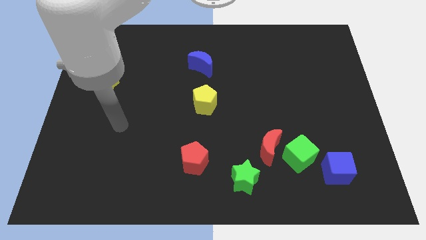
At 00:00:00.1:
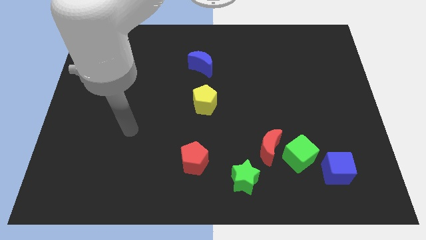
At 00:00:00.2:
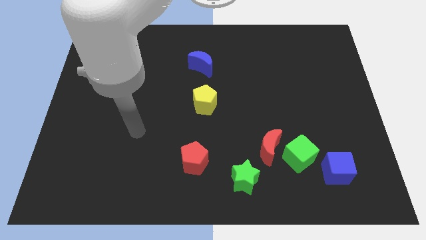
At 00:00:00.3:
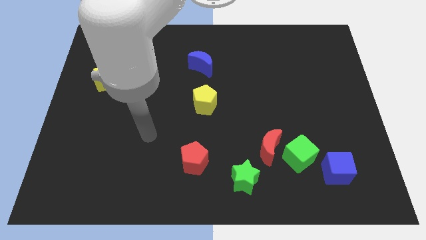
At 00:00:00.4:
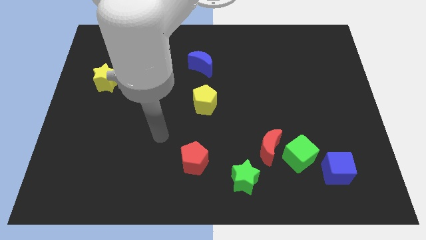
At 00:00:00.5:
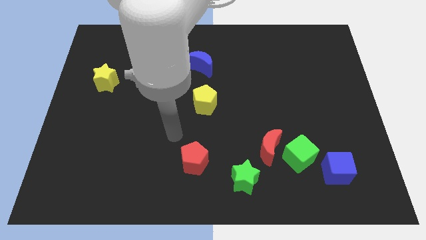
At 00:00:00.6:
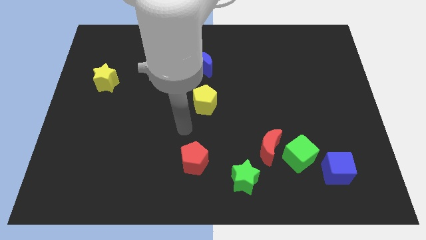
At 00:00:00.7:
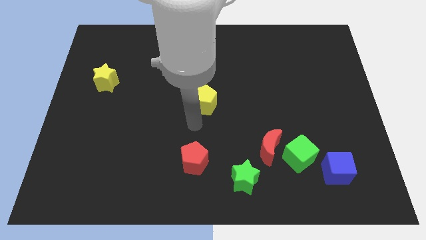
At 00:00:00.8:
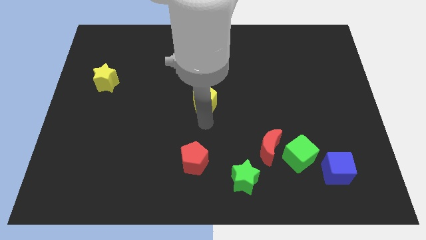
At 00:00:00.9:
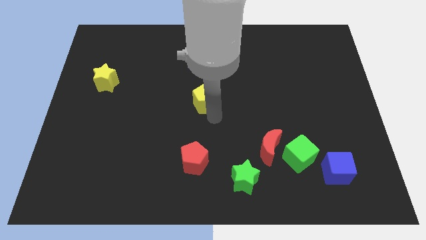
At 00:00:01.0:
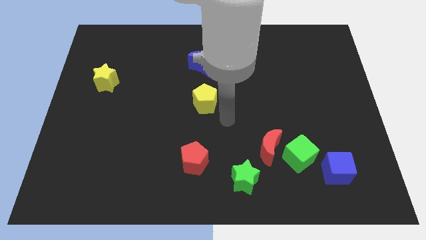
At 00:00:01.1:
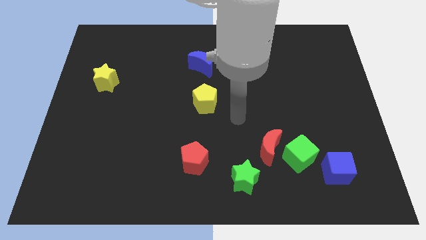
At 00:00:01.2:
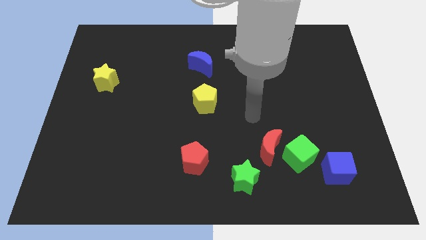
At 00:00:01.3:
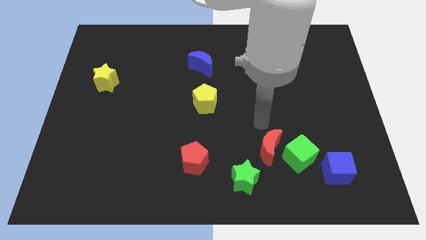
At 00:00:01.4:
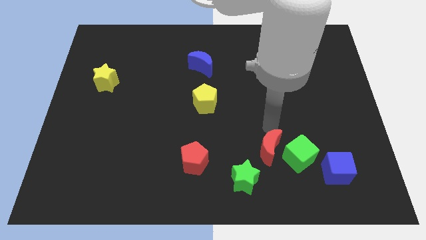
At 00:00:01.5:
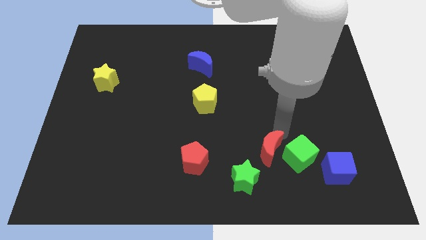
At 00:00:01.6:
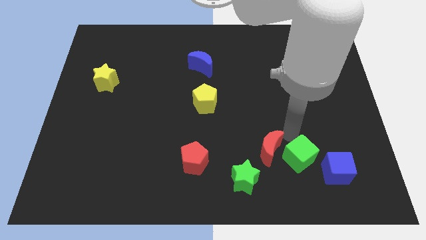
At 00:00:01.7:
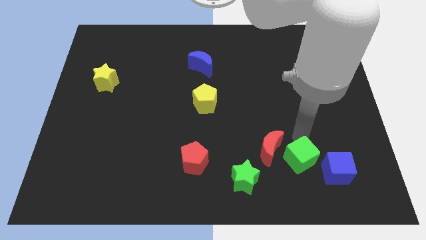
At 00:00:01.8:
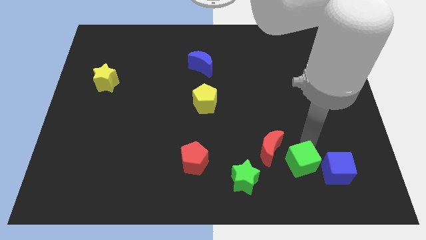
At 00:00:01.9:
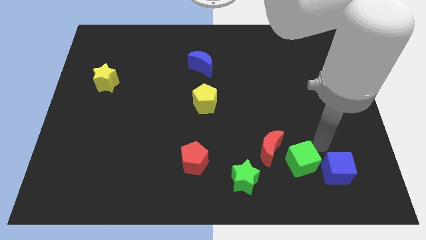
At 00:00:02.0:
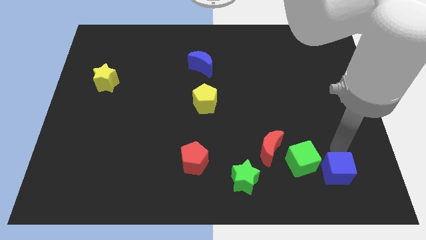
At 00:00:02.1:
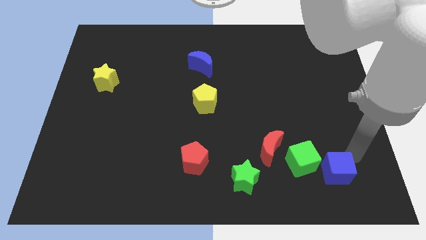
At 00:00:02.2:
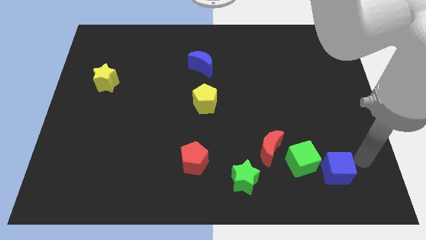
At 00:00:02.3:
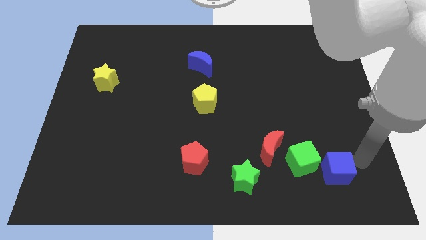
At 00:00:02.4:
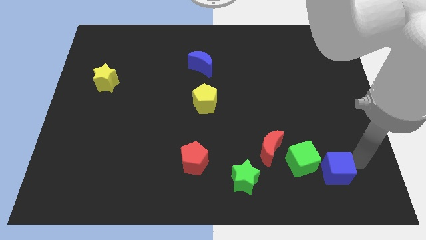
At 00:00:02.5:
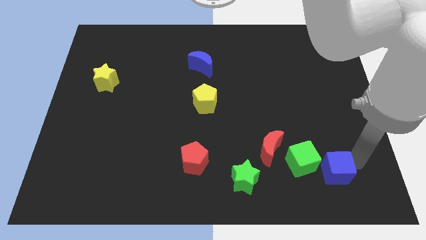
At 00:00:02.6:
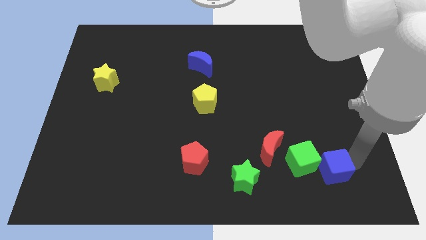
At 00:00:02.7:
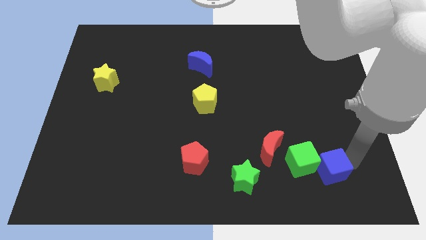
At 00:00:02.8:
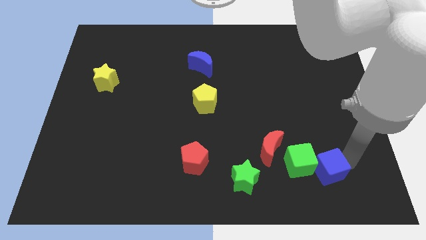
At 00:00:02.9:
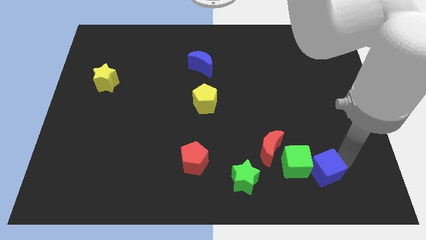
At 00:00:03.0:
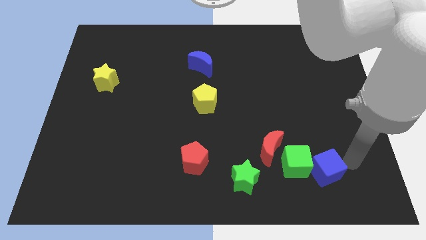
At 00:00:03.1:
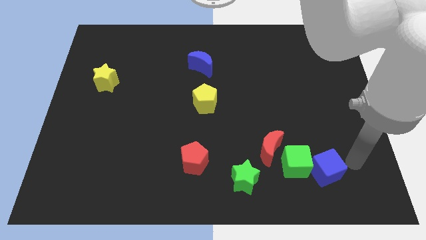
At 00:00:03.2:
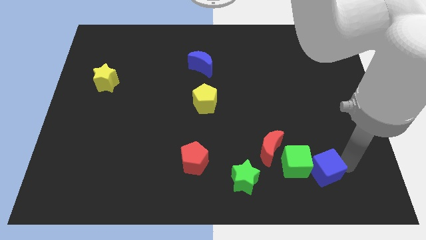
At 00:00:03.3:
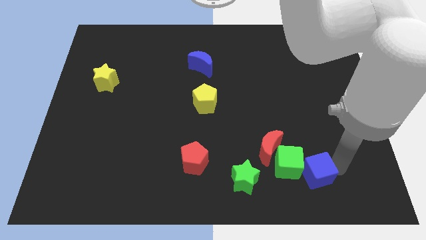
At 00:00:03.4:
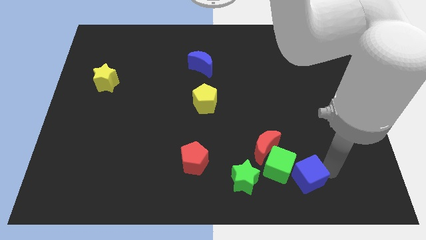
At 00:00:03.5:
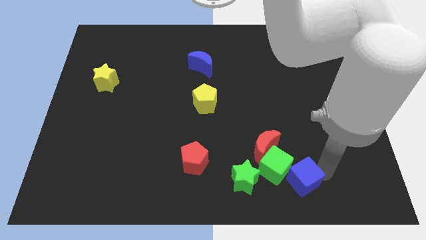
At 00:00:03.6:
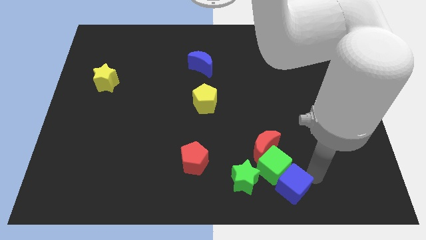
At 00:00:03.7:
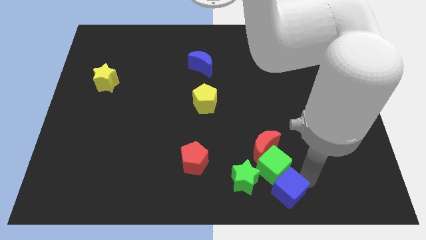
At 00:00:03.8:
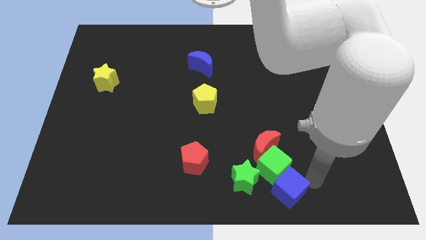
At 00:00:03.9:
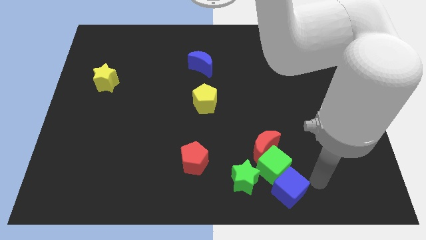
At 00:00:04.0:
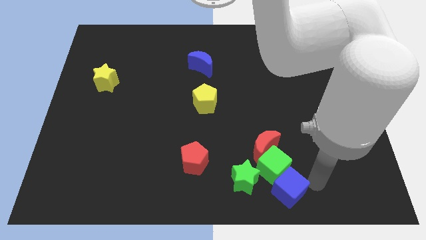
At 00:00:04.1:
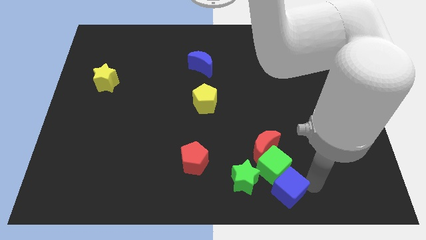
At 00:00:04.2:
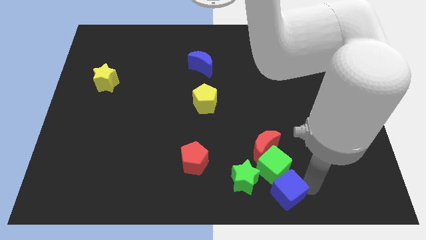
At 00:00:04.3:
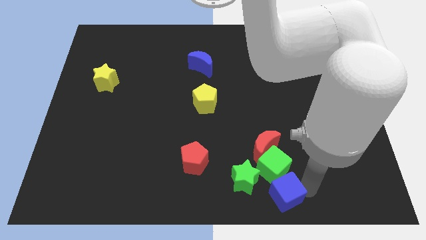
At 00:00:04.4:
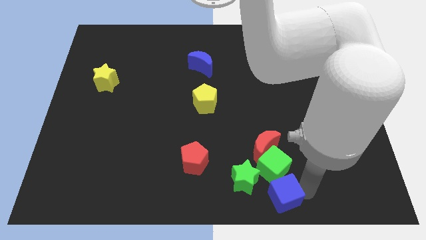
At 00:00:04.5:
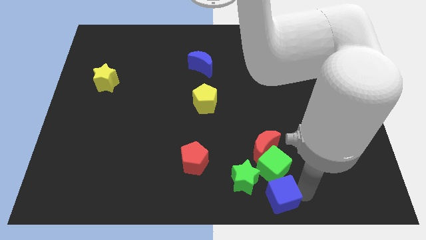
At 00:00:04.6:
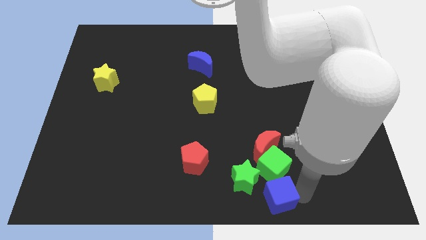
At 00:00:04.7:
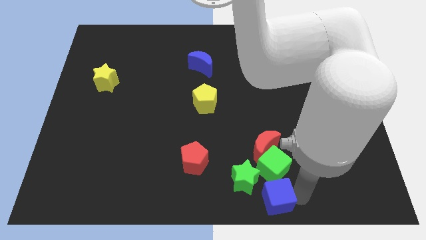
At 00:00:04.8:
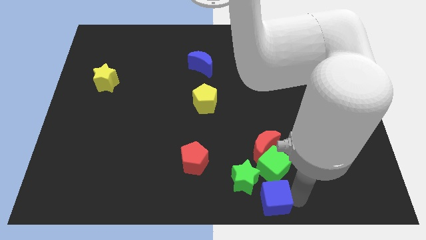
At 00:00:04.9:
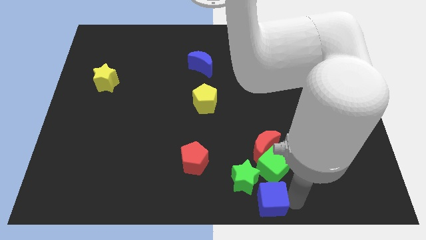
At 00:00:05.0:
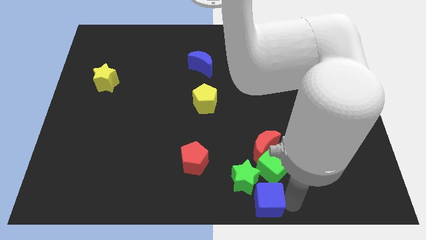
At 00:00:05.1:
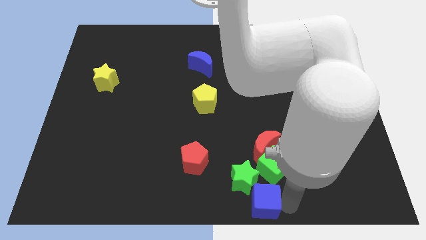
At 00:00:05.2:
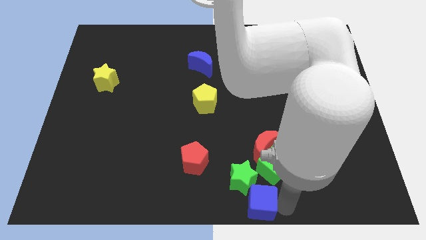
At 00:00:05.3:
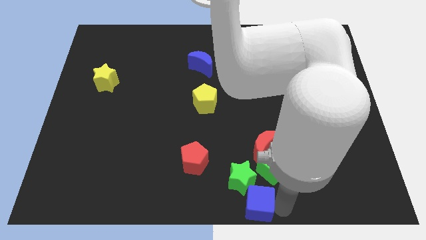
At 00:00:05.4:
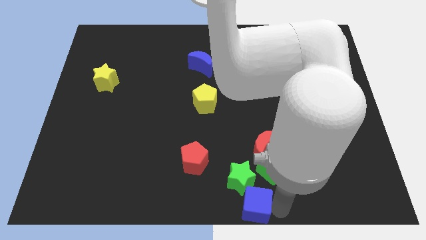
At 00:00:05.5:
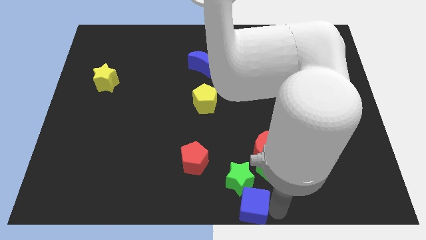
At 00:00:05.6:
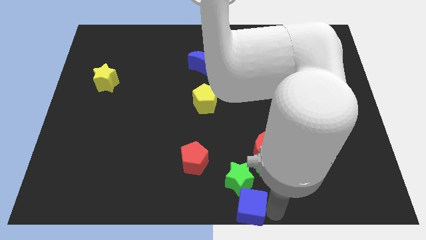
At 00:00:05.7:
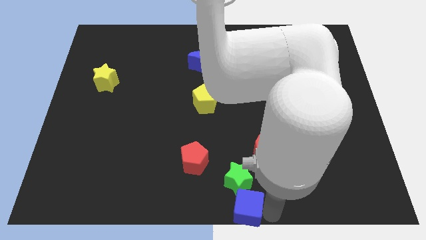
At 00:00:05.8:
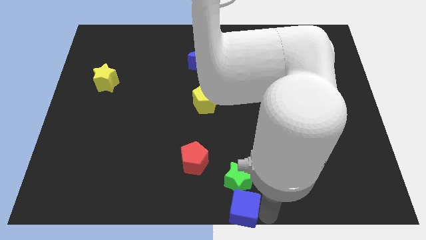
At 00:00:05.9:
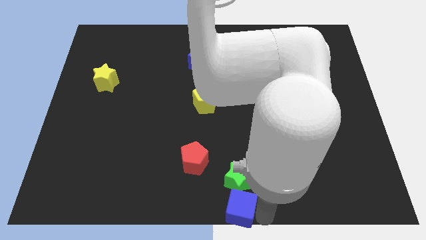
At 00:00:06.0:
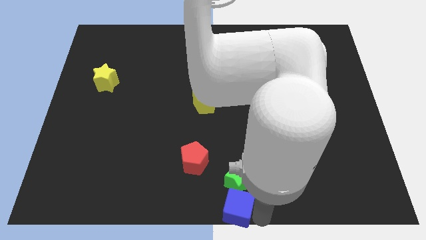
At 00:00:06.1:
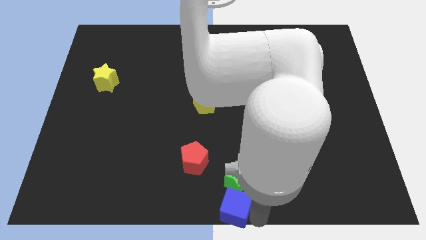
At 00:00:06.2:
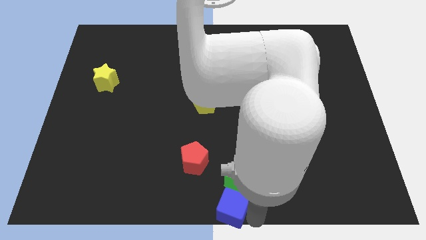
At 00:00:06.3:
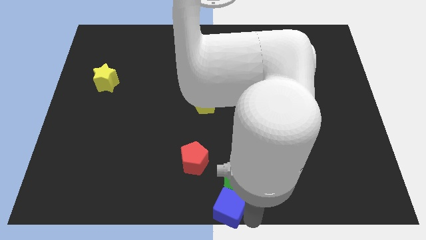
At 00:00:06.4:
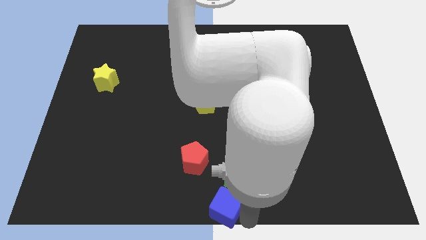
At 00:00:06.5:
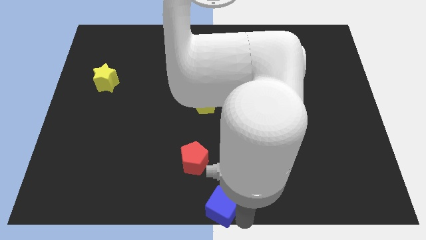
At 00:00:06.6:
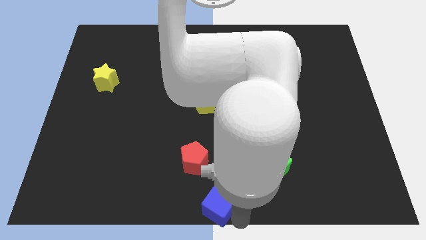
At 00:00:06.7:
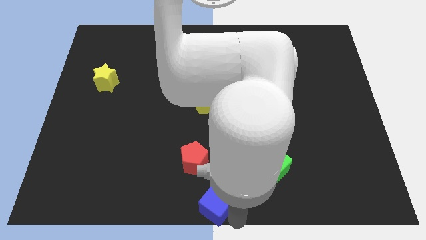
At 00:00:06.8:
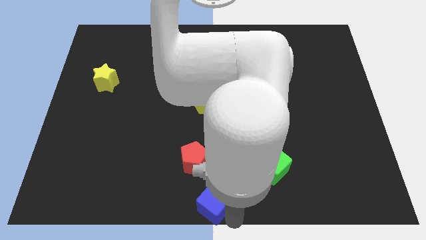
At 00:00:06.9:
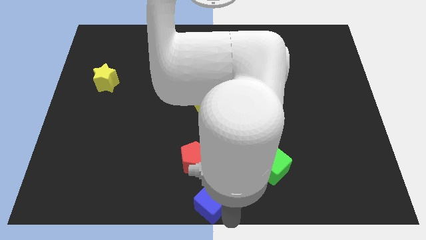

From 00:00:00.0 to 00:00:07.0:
move the blue cube left of the green star
